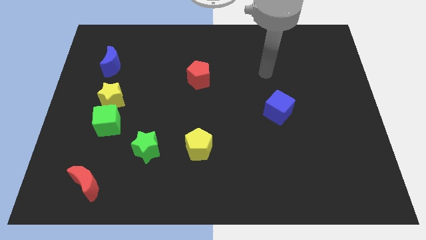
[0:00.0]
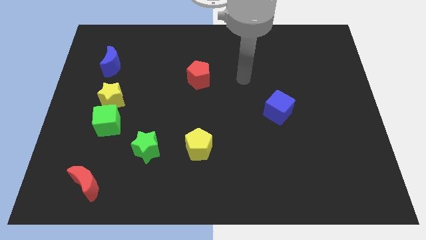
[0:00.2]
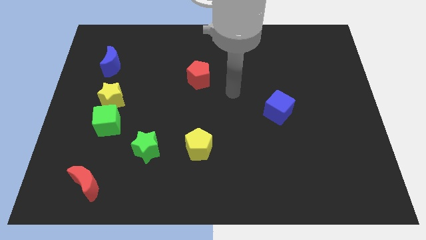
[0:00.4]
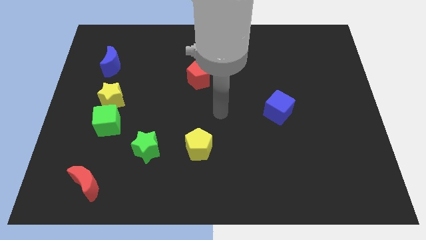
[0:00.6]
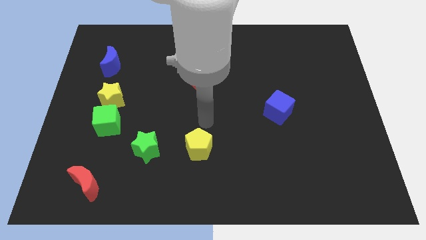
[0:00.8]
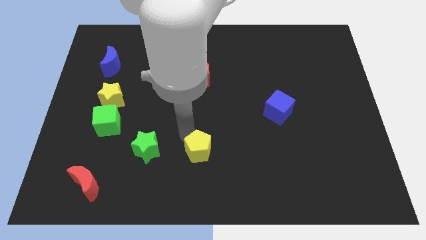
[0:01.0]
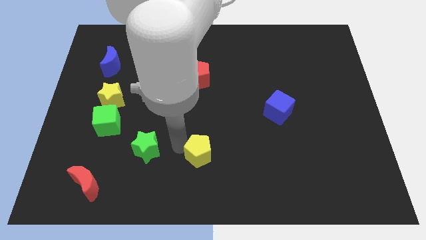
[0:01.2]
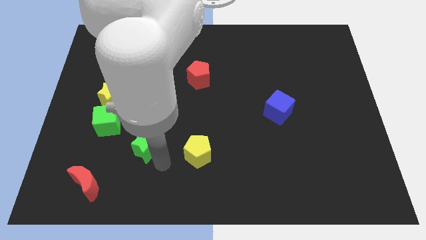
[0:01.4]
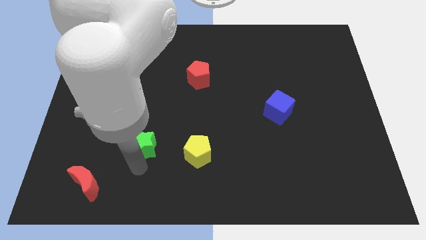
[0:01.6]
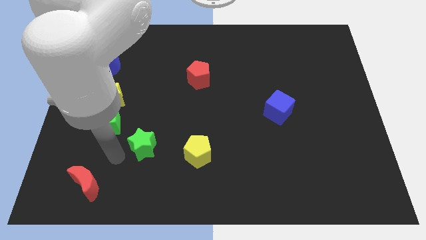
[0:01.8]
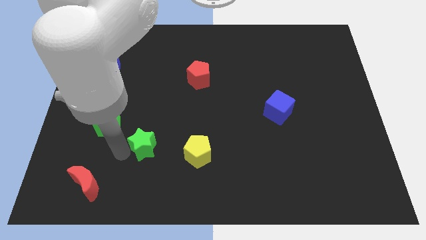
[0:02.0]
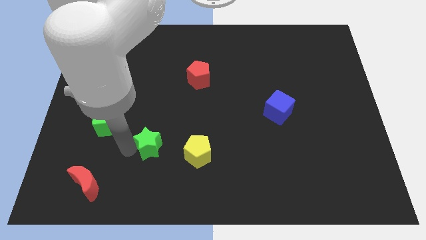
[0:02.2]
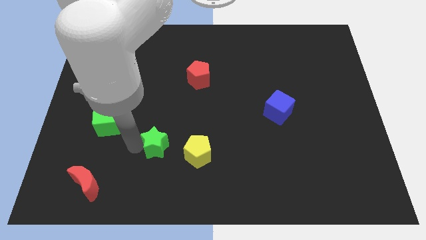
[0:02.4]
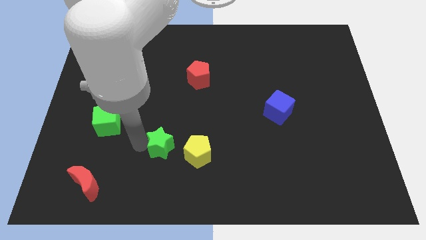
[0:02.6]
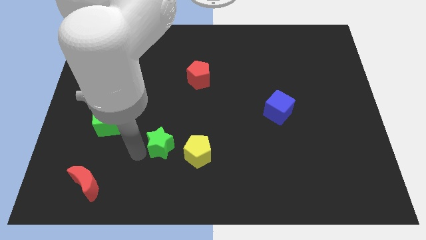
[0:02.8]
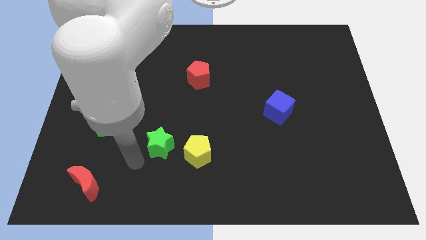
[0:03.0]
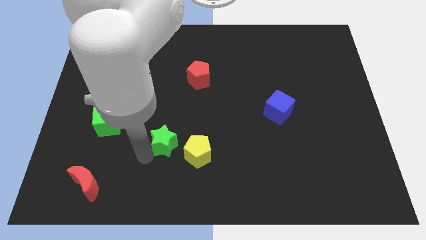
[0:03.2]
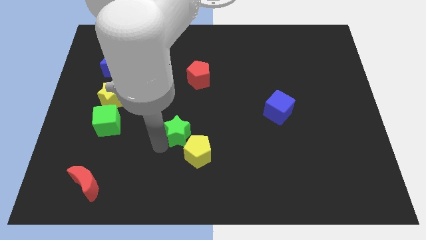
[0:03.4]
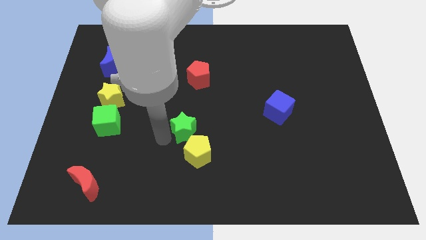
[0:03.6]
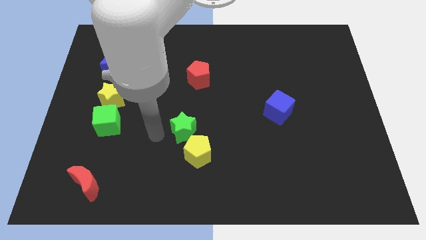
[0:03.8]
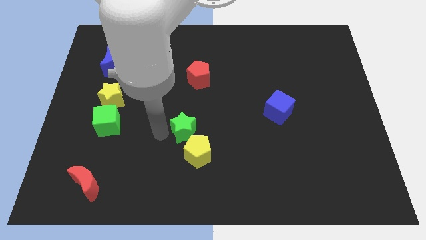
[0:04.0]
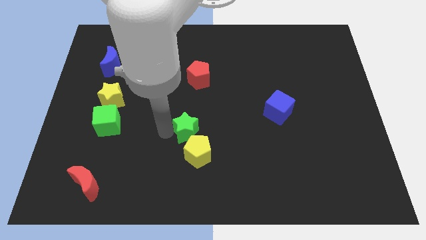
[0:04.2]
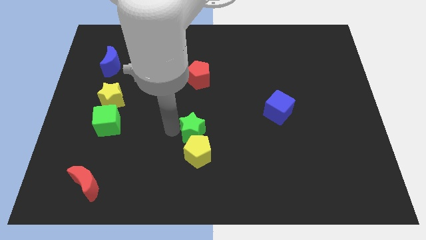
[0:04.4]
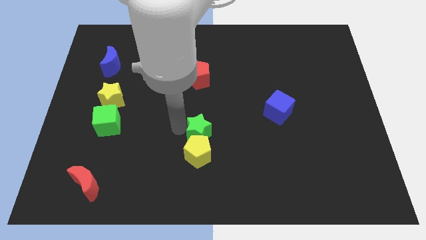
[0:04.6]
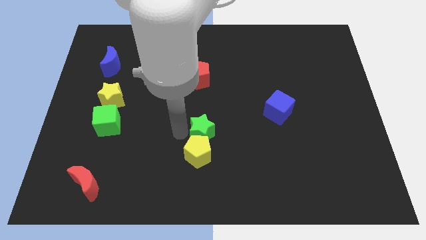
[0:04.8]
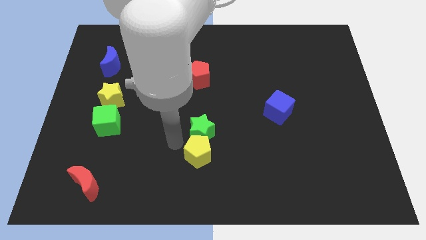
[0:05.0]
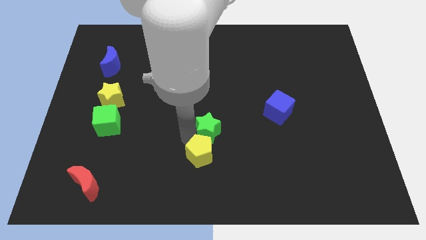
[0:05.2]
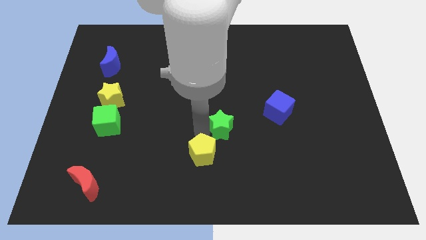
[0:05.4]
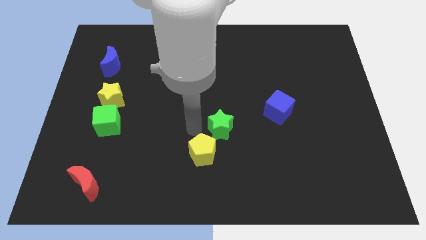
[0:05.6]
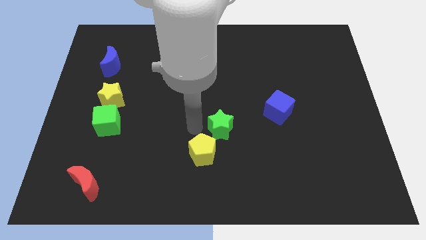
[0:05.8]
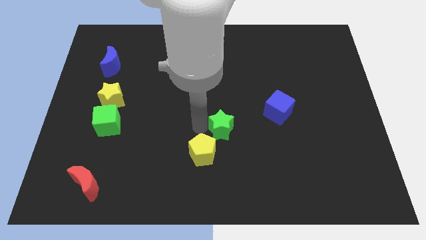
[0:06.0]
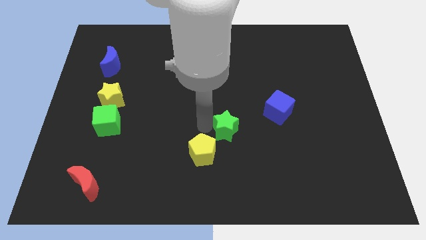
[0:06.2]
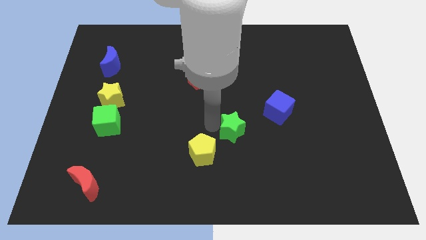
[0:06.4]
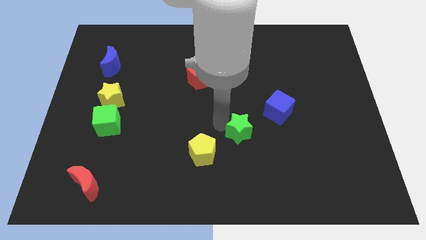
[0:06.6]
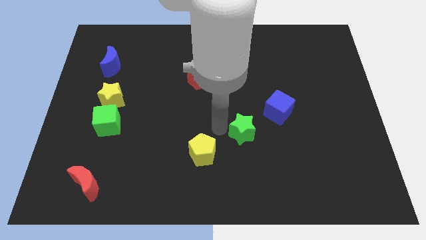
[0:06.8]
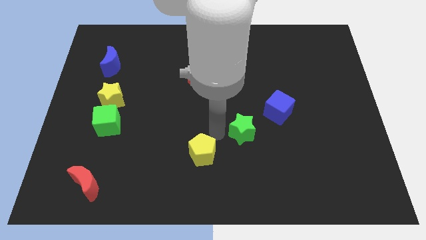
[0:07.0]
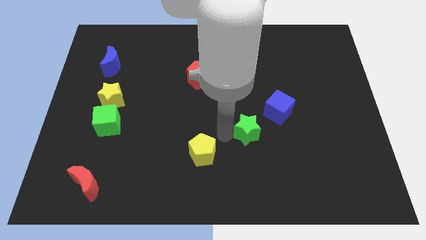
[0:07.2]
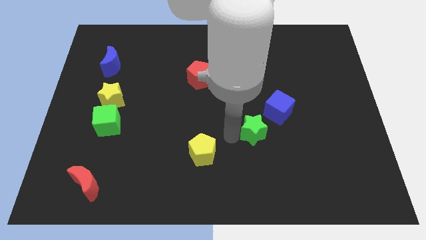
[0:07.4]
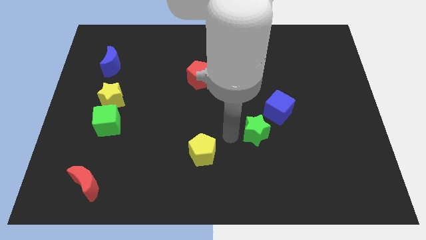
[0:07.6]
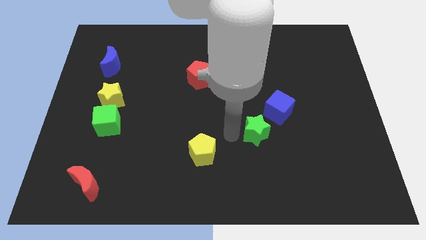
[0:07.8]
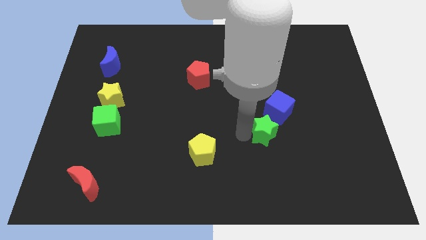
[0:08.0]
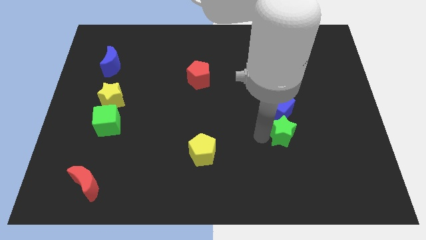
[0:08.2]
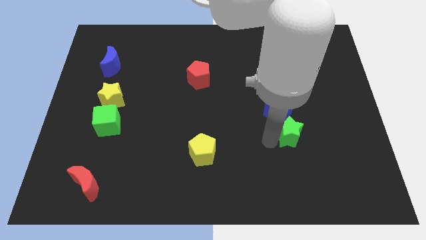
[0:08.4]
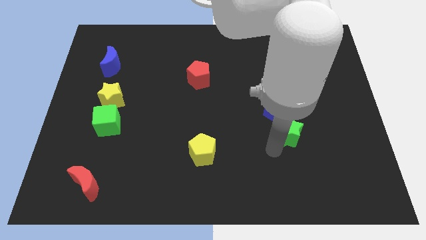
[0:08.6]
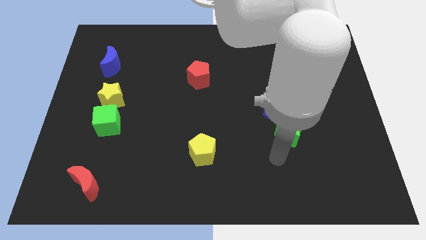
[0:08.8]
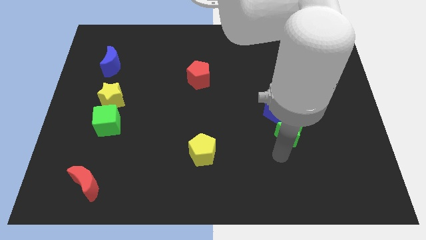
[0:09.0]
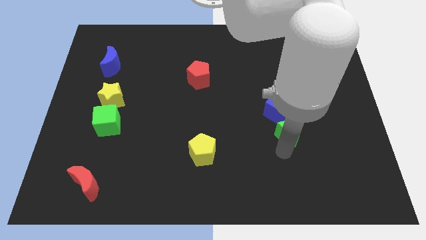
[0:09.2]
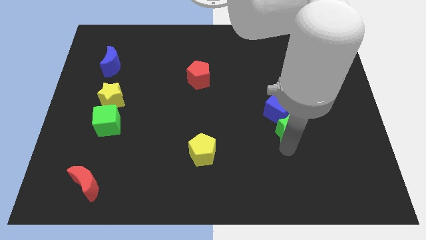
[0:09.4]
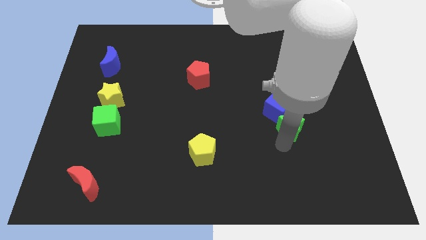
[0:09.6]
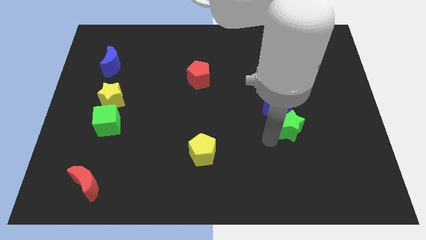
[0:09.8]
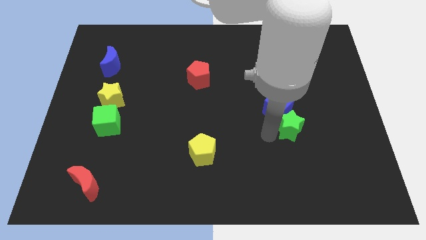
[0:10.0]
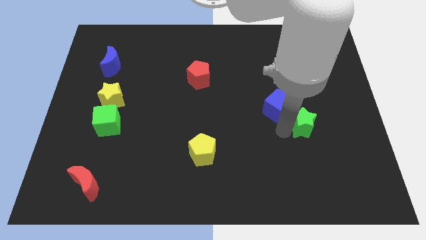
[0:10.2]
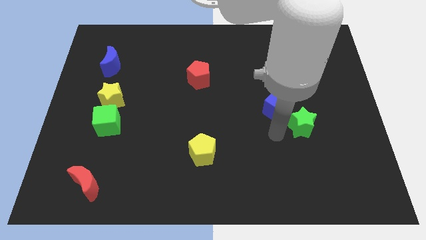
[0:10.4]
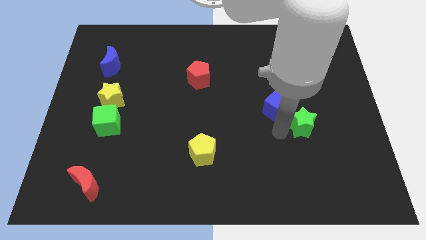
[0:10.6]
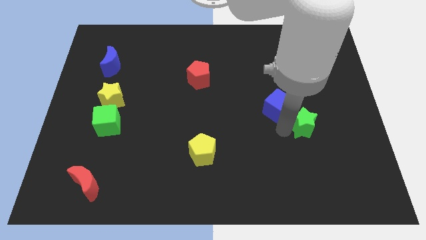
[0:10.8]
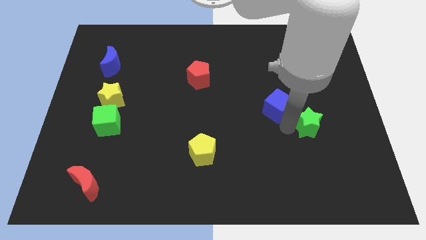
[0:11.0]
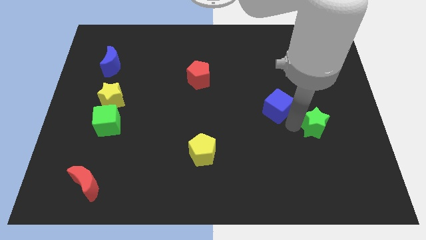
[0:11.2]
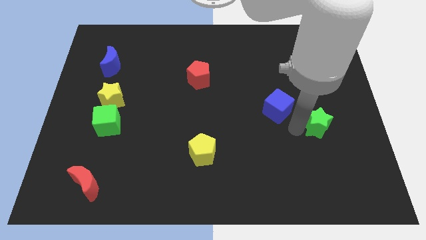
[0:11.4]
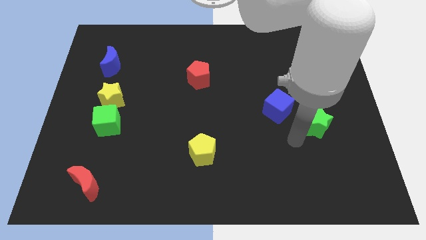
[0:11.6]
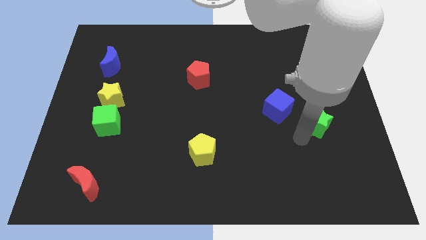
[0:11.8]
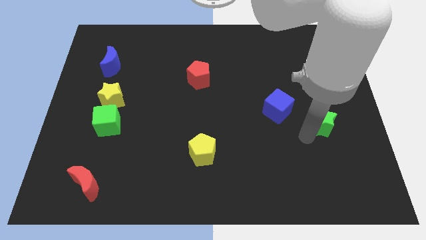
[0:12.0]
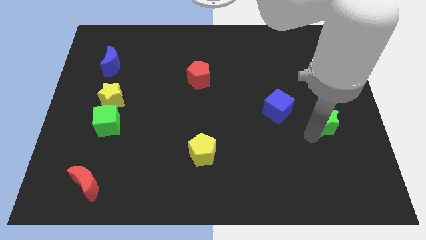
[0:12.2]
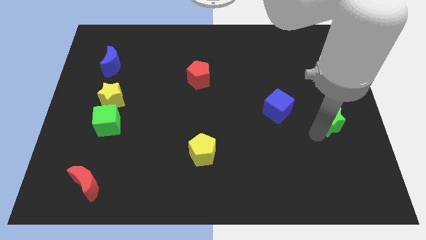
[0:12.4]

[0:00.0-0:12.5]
put the green star to the center right
